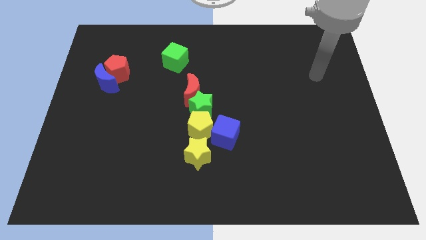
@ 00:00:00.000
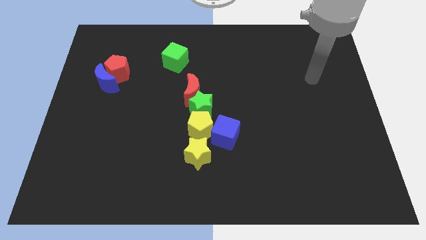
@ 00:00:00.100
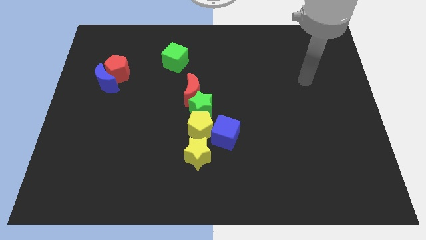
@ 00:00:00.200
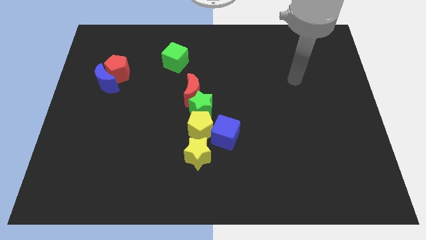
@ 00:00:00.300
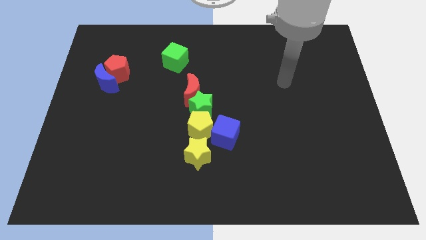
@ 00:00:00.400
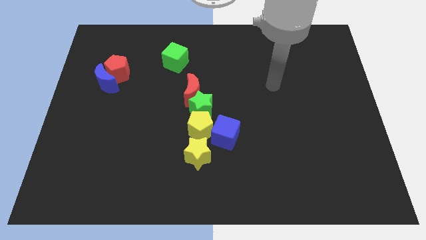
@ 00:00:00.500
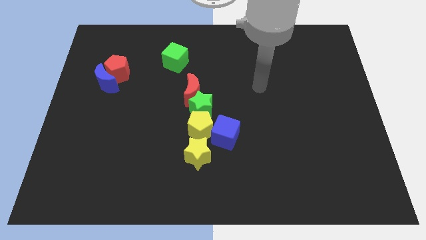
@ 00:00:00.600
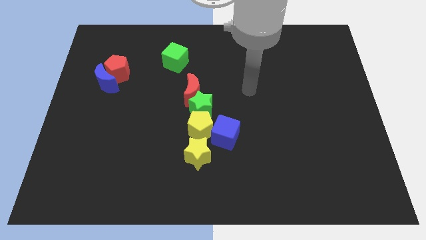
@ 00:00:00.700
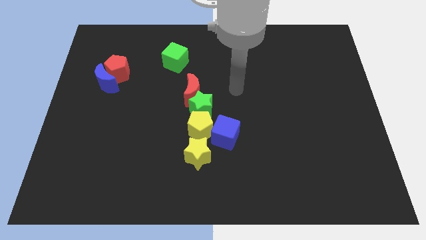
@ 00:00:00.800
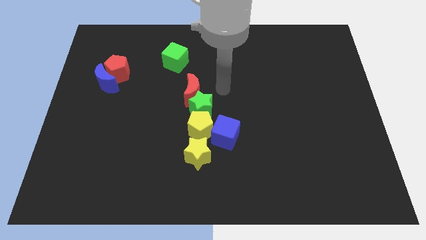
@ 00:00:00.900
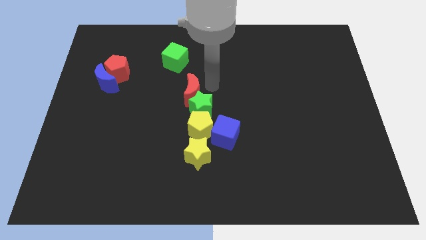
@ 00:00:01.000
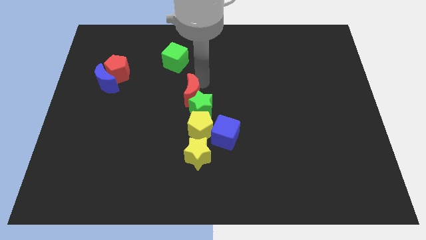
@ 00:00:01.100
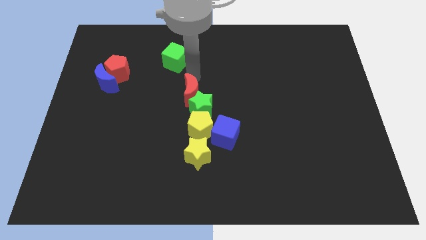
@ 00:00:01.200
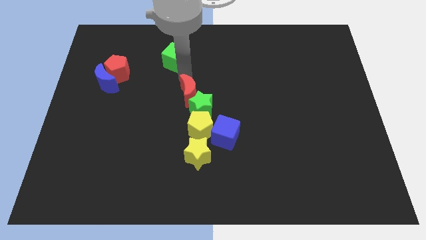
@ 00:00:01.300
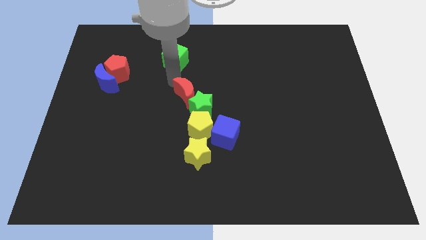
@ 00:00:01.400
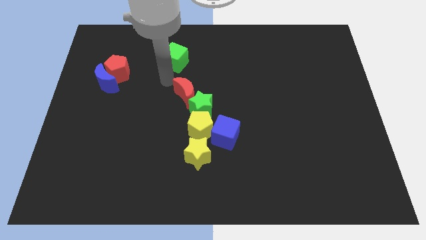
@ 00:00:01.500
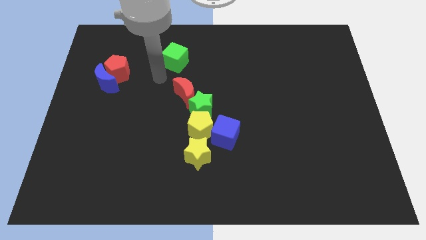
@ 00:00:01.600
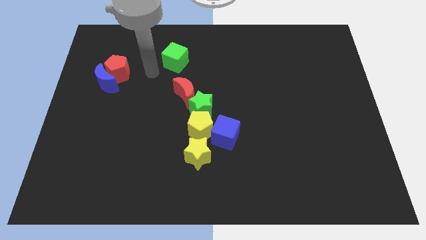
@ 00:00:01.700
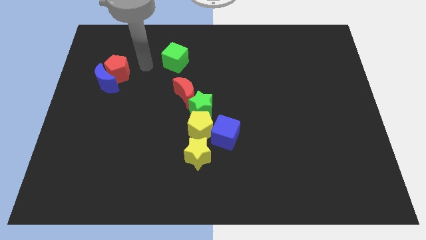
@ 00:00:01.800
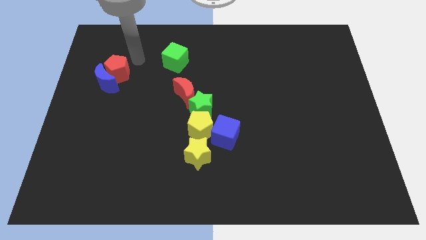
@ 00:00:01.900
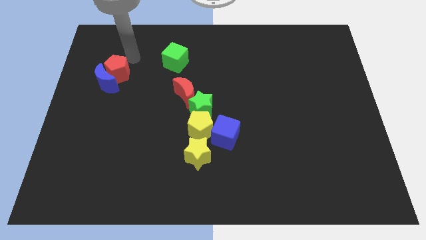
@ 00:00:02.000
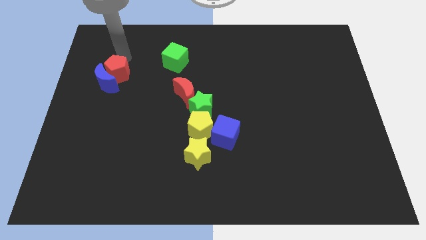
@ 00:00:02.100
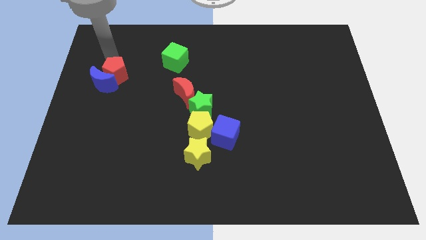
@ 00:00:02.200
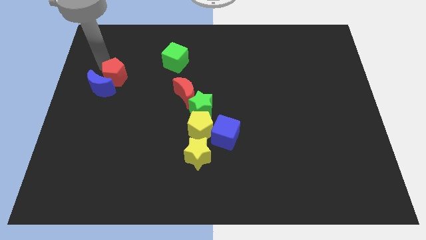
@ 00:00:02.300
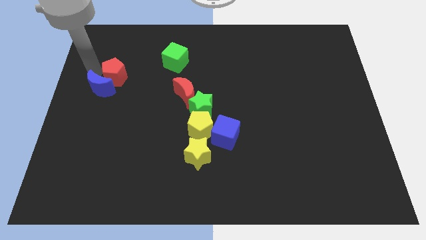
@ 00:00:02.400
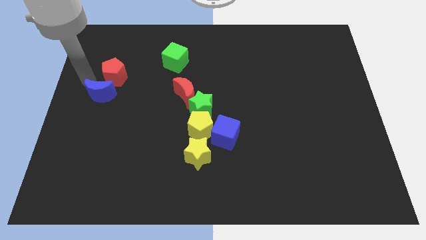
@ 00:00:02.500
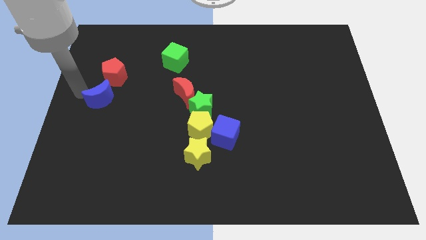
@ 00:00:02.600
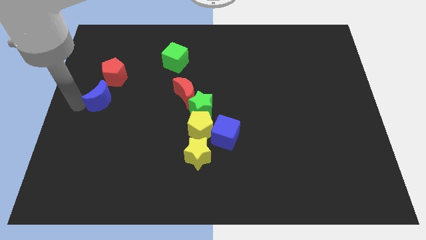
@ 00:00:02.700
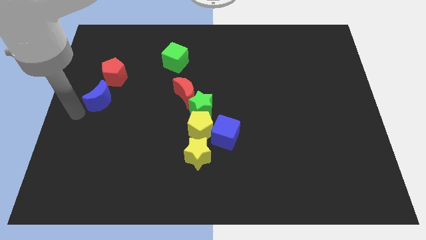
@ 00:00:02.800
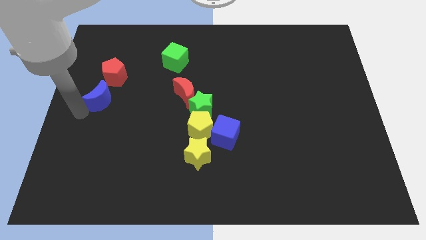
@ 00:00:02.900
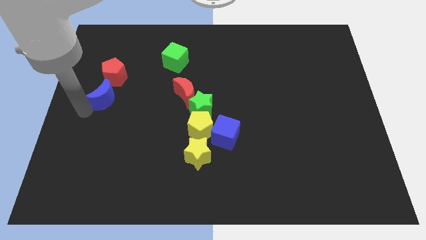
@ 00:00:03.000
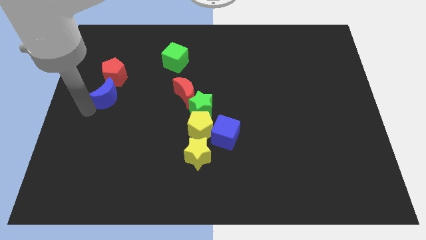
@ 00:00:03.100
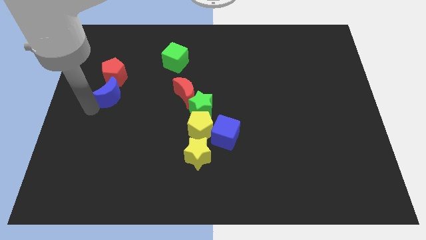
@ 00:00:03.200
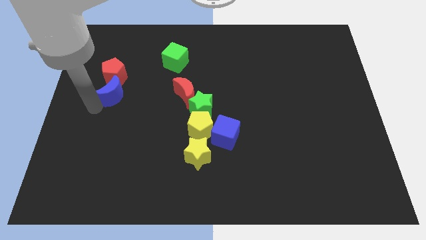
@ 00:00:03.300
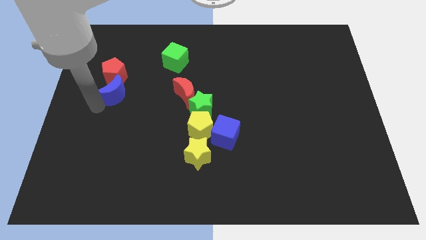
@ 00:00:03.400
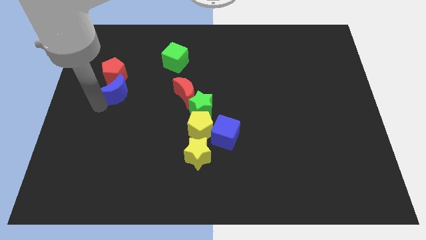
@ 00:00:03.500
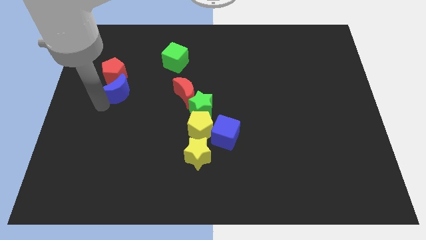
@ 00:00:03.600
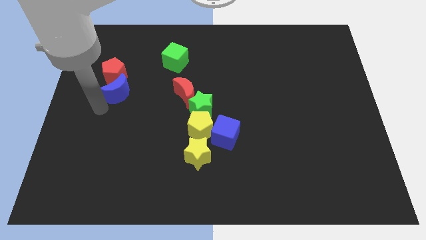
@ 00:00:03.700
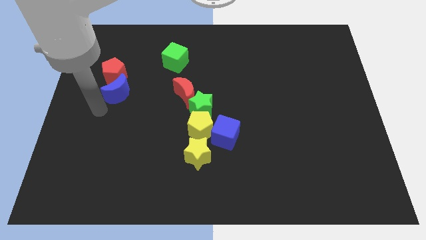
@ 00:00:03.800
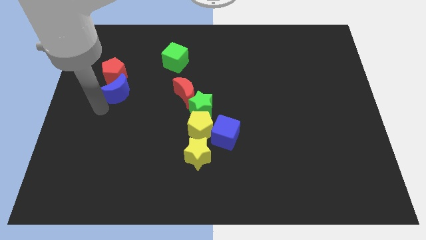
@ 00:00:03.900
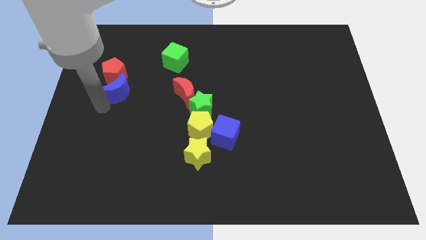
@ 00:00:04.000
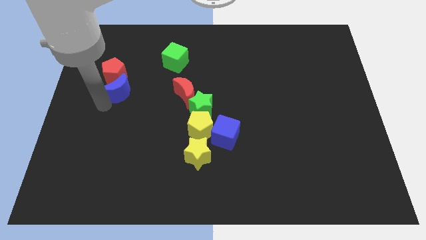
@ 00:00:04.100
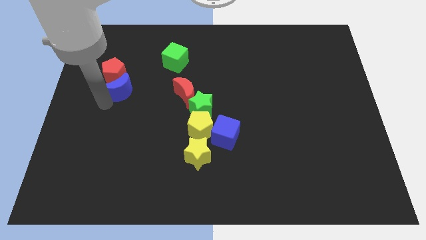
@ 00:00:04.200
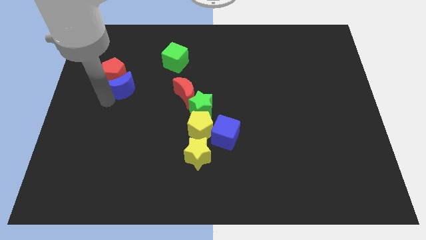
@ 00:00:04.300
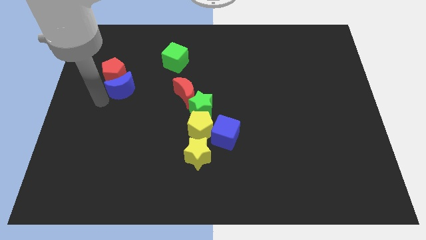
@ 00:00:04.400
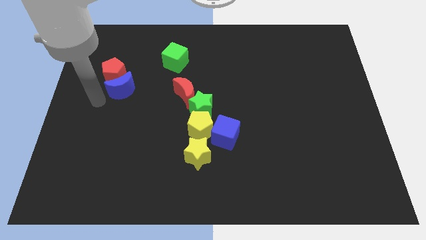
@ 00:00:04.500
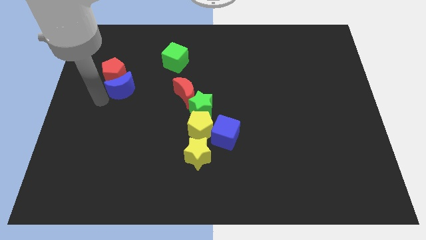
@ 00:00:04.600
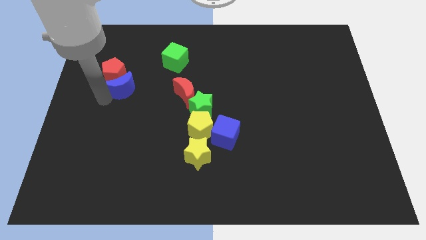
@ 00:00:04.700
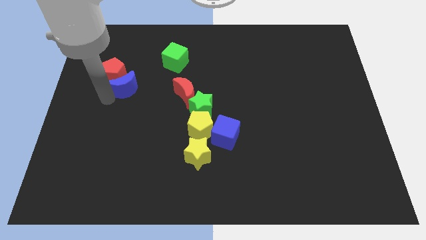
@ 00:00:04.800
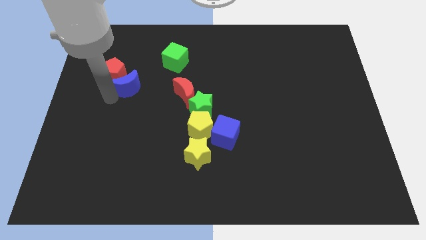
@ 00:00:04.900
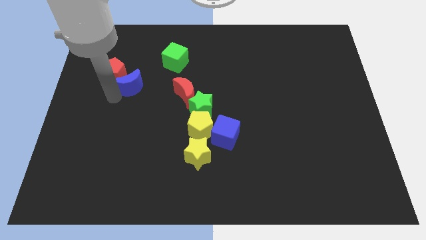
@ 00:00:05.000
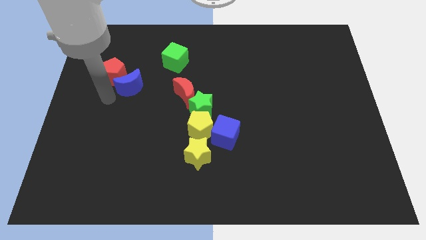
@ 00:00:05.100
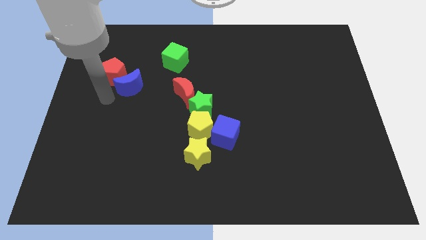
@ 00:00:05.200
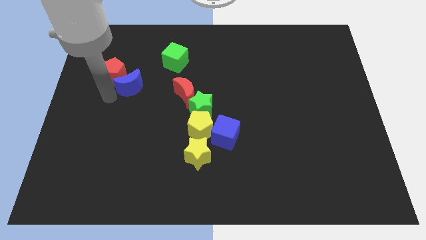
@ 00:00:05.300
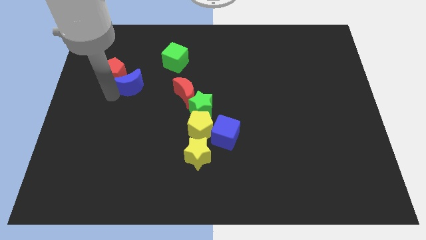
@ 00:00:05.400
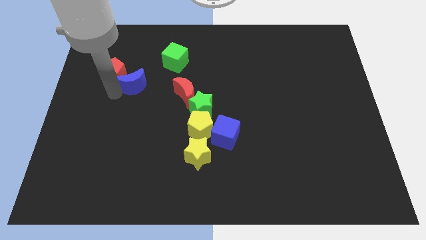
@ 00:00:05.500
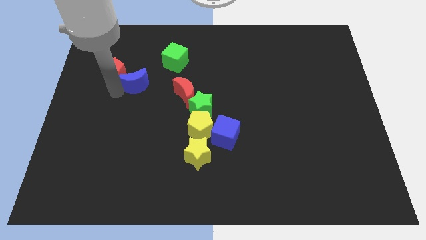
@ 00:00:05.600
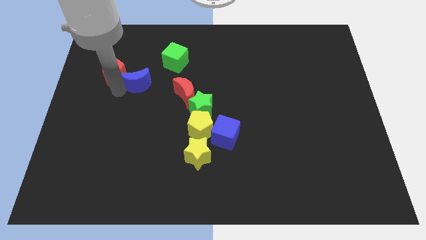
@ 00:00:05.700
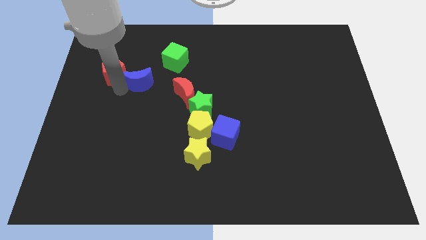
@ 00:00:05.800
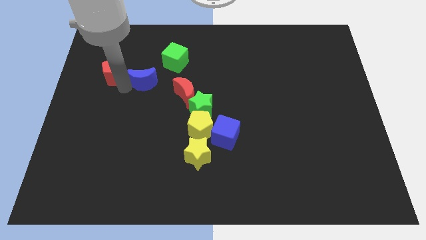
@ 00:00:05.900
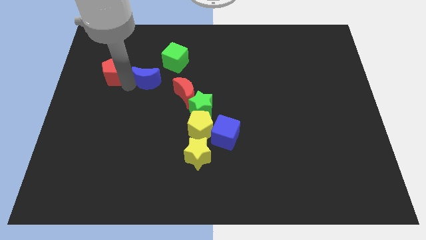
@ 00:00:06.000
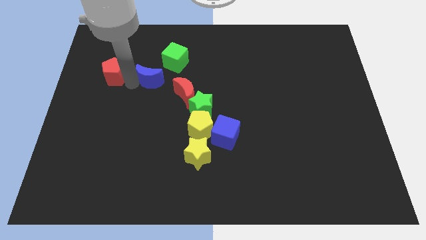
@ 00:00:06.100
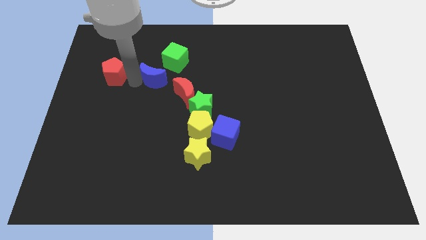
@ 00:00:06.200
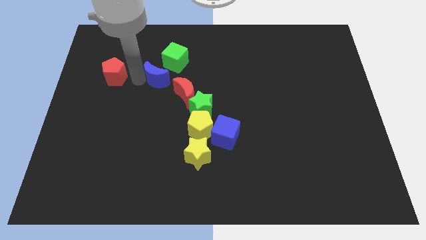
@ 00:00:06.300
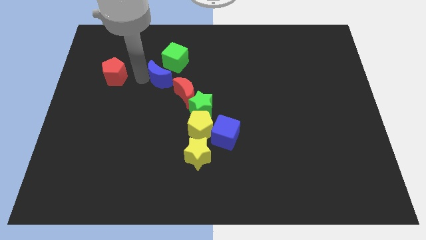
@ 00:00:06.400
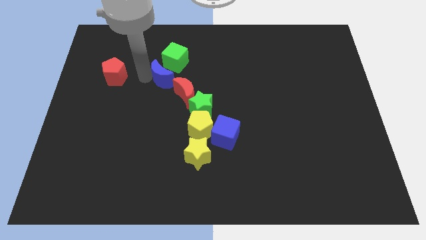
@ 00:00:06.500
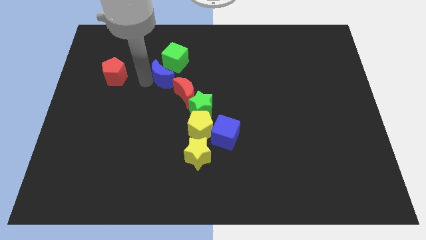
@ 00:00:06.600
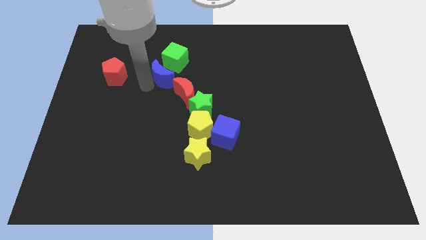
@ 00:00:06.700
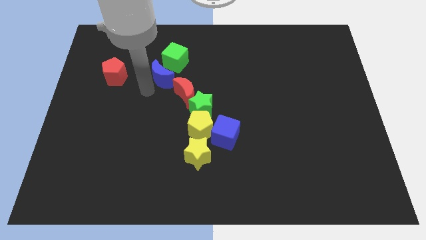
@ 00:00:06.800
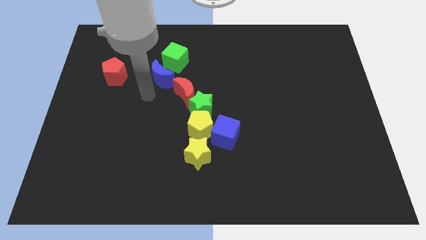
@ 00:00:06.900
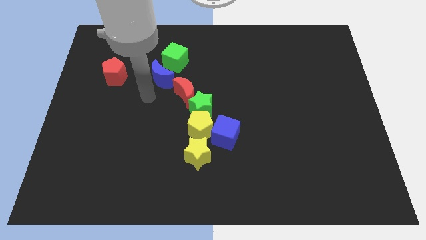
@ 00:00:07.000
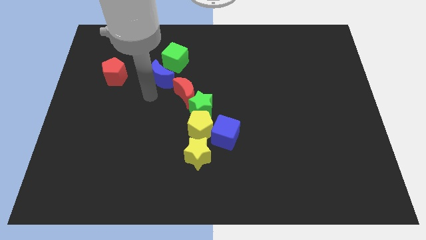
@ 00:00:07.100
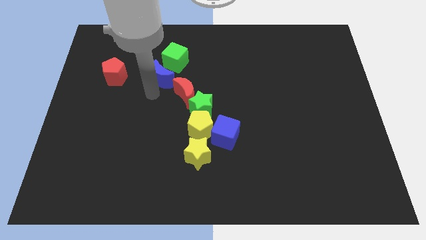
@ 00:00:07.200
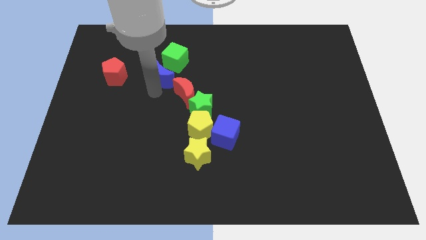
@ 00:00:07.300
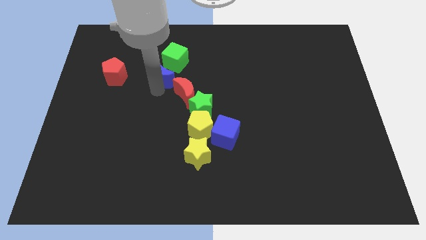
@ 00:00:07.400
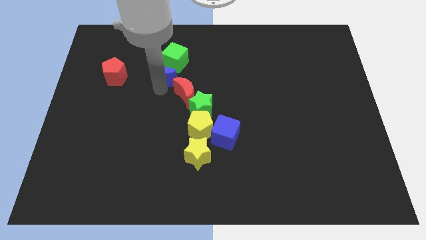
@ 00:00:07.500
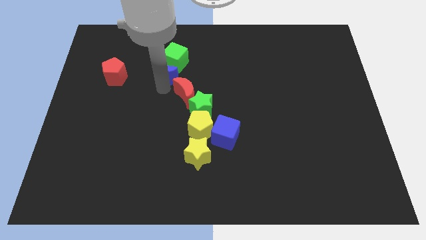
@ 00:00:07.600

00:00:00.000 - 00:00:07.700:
put the blue moon close to the green cube
